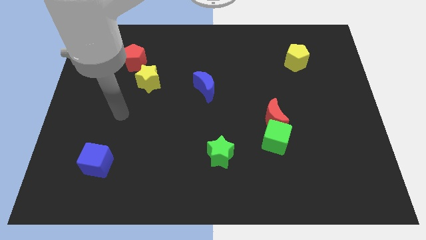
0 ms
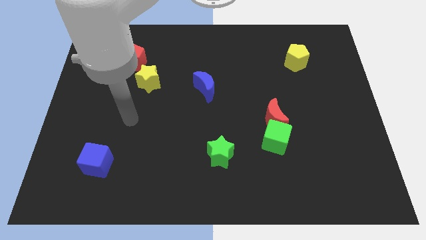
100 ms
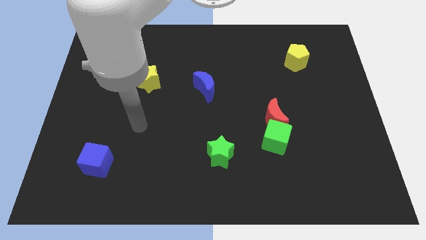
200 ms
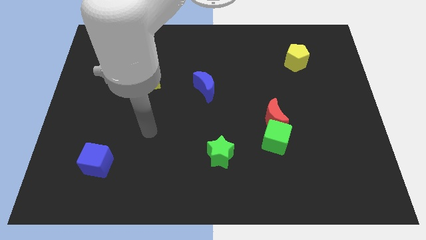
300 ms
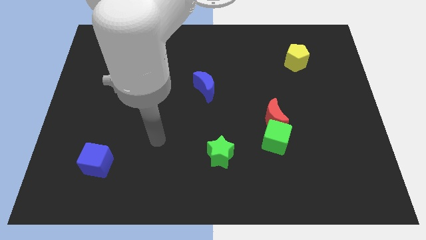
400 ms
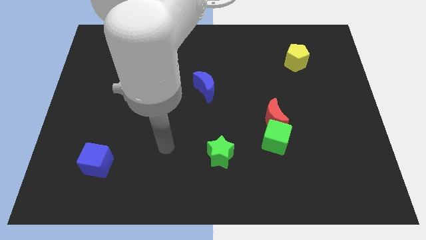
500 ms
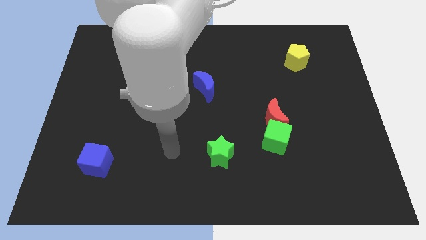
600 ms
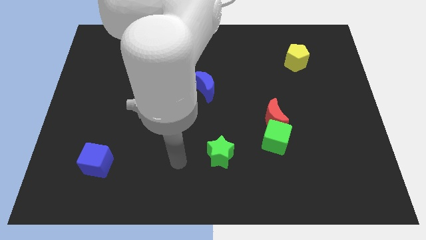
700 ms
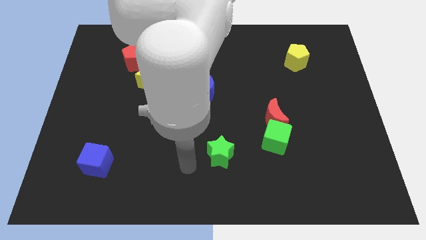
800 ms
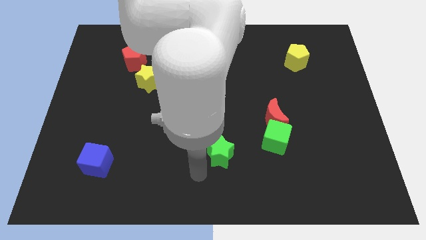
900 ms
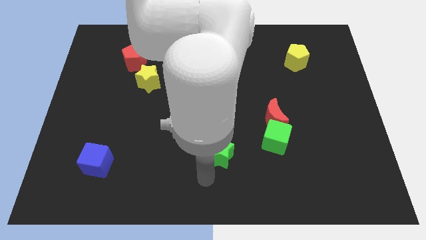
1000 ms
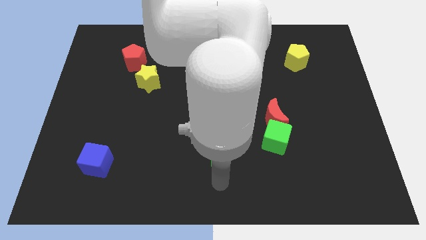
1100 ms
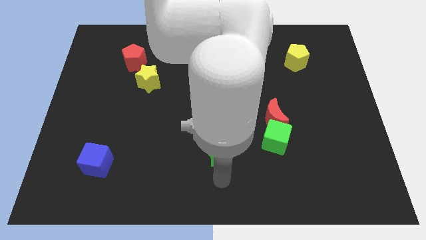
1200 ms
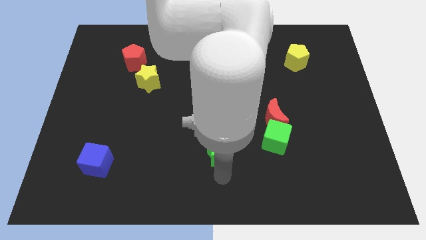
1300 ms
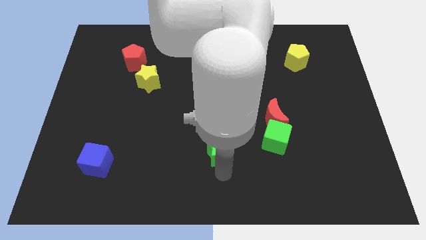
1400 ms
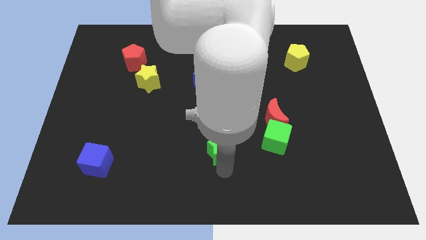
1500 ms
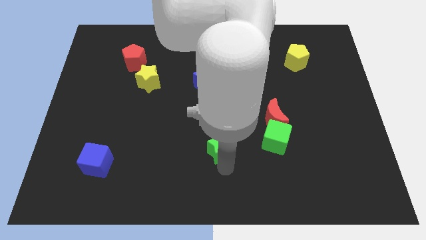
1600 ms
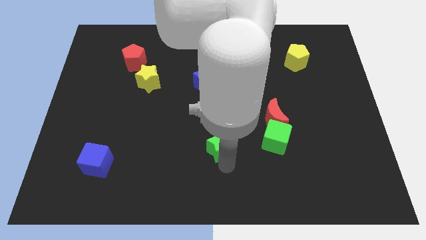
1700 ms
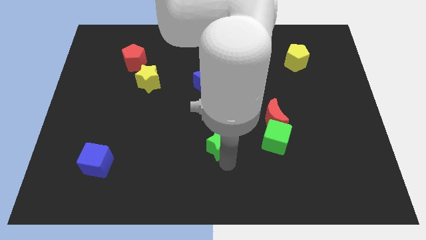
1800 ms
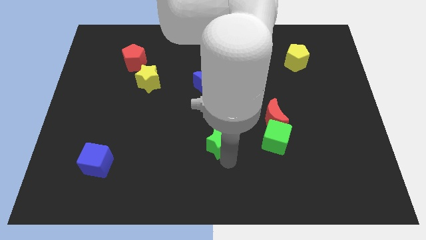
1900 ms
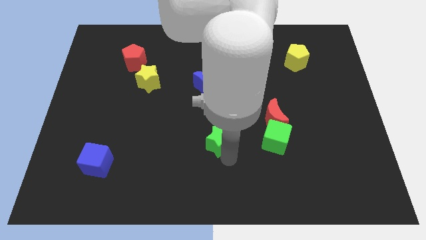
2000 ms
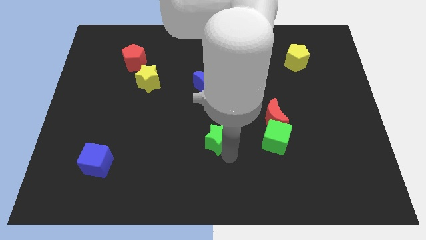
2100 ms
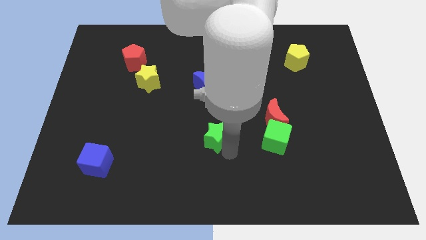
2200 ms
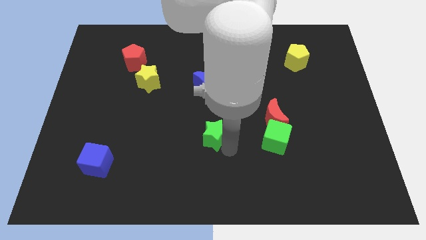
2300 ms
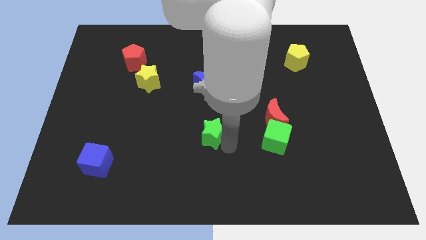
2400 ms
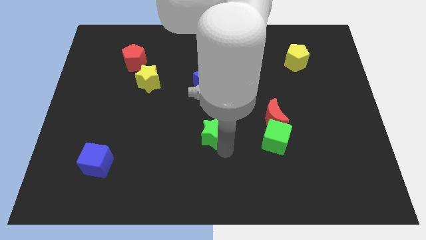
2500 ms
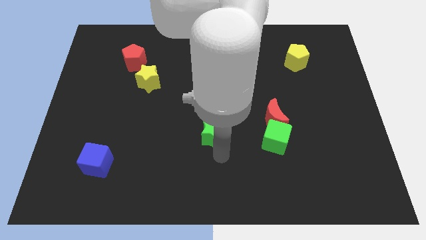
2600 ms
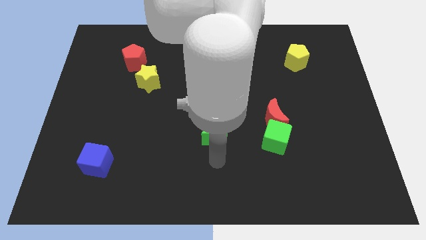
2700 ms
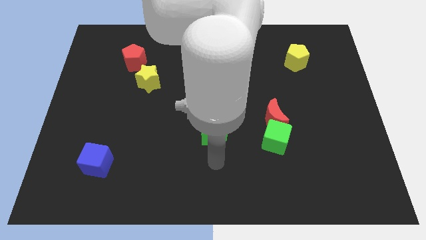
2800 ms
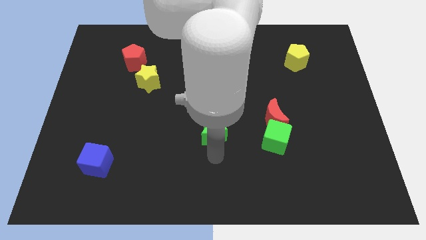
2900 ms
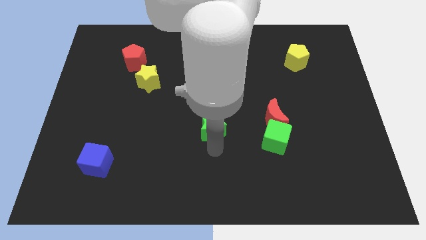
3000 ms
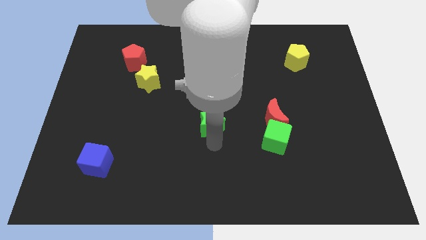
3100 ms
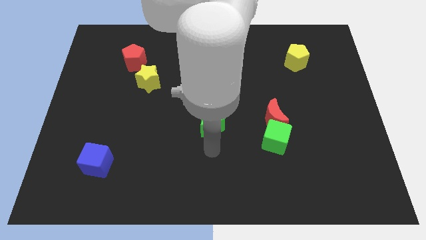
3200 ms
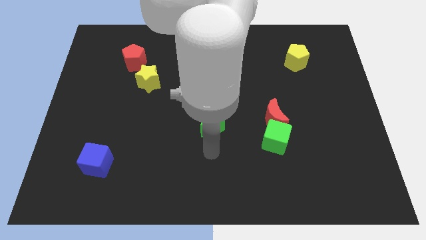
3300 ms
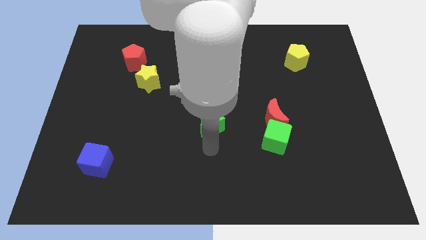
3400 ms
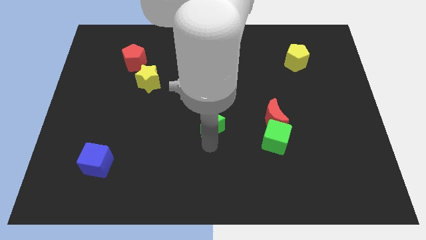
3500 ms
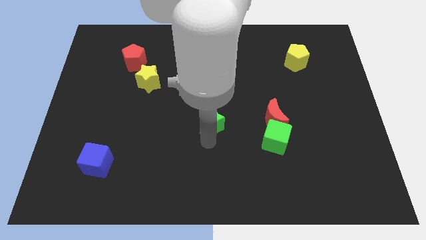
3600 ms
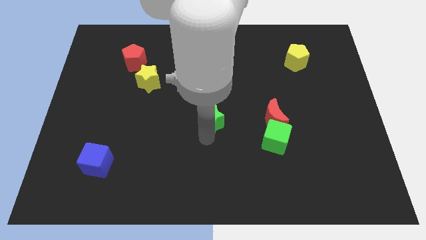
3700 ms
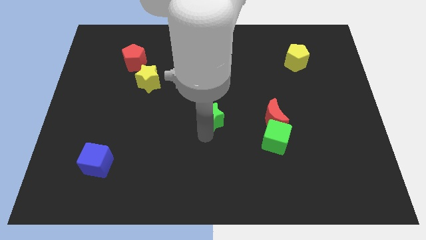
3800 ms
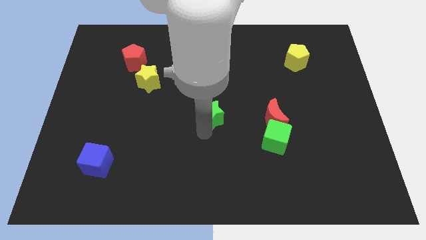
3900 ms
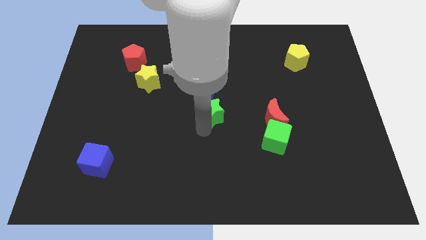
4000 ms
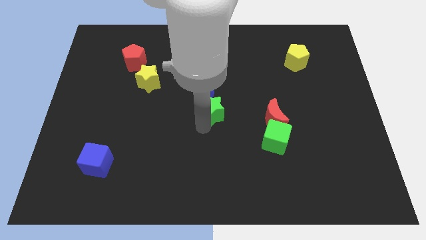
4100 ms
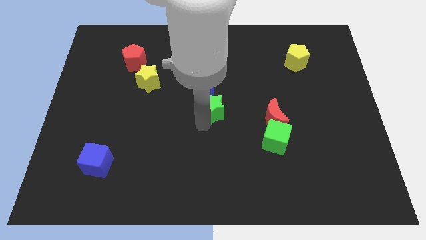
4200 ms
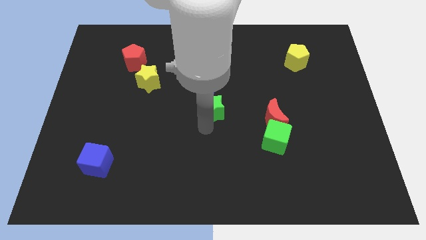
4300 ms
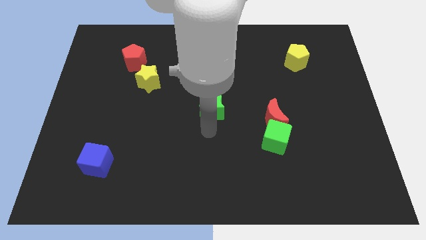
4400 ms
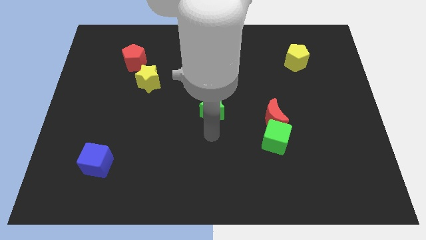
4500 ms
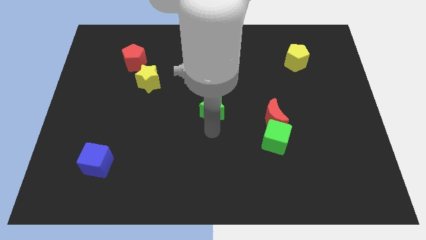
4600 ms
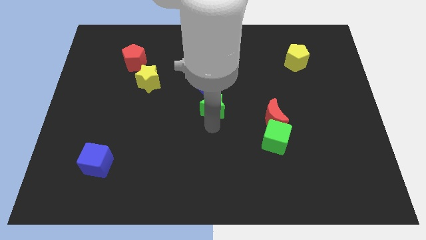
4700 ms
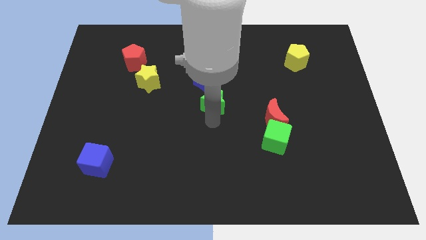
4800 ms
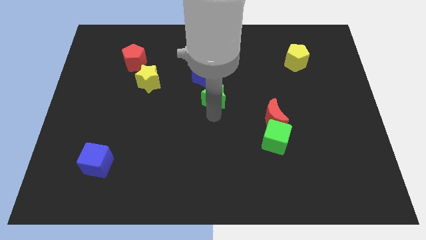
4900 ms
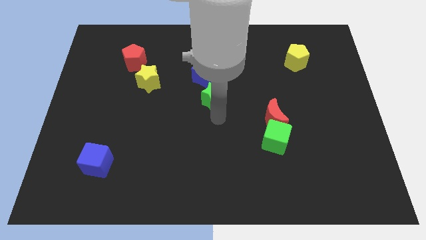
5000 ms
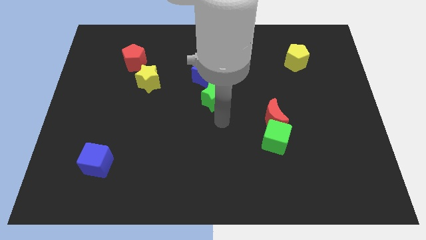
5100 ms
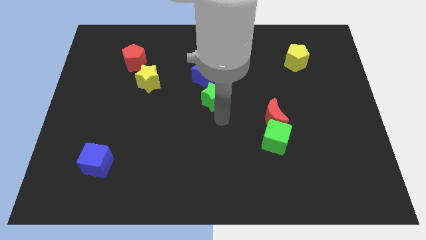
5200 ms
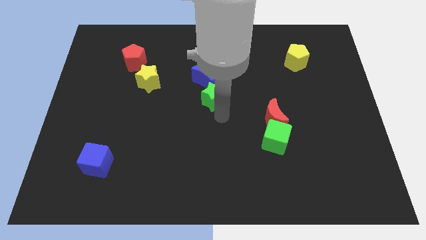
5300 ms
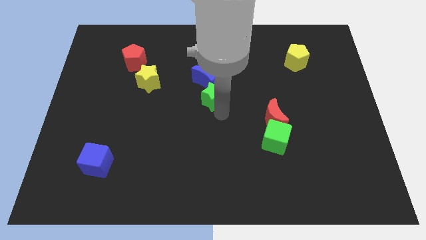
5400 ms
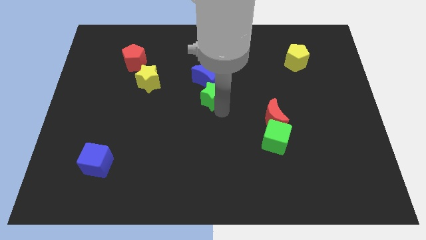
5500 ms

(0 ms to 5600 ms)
slide the green star to the blue moon

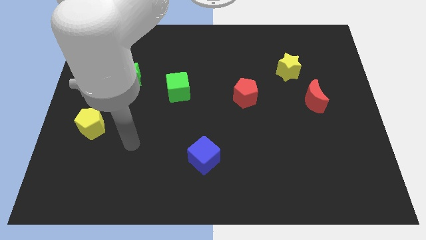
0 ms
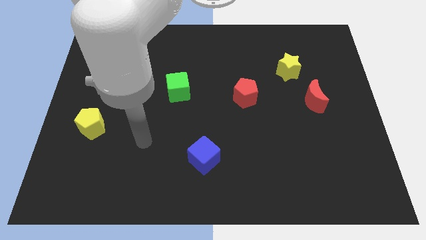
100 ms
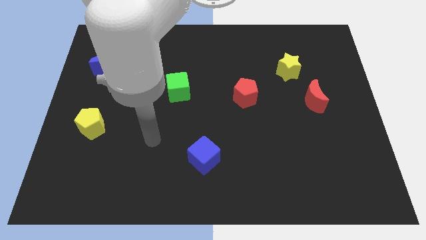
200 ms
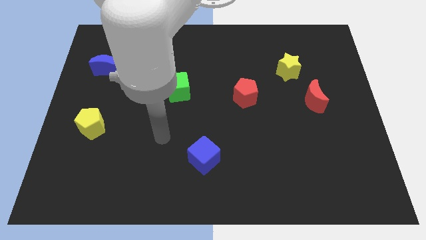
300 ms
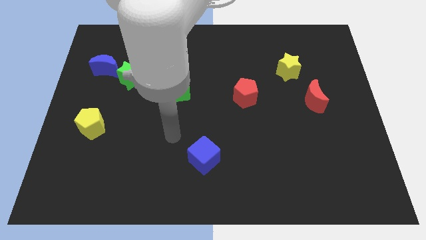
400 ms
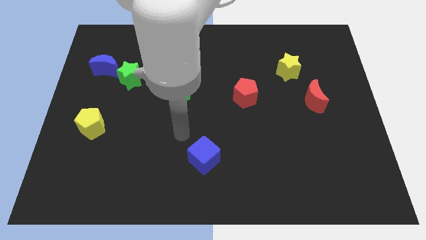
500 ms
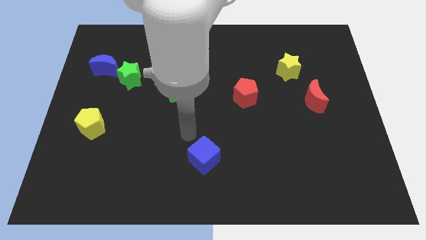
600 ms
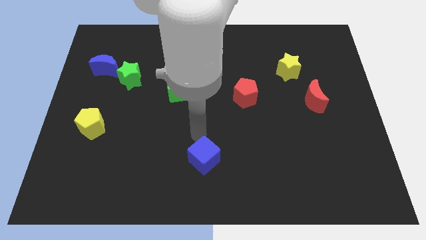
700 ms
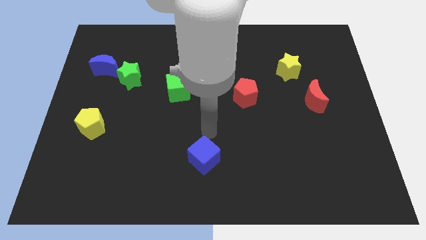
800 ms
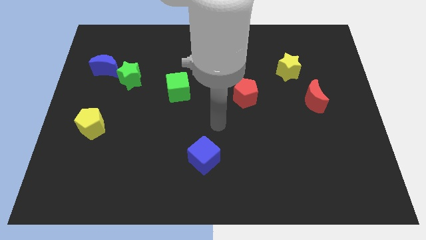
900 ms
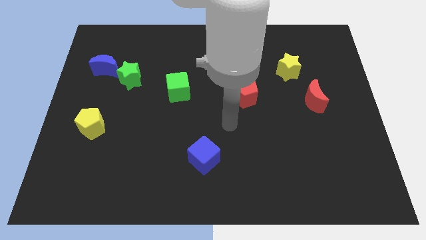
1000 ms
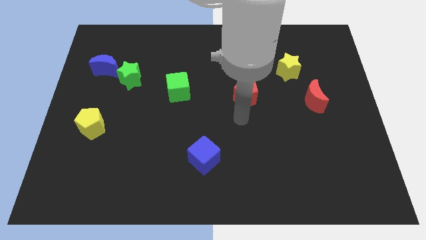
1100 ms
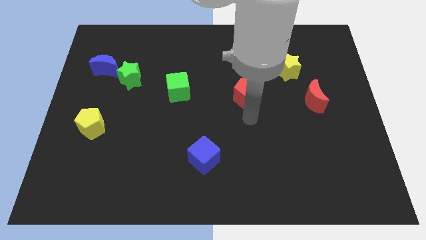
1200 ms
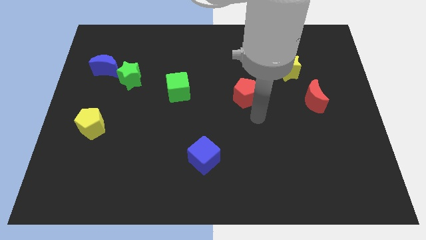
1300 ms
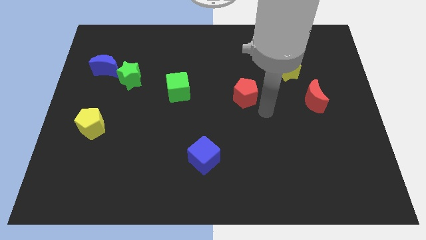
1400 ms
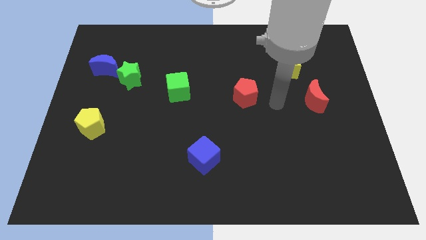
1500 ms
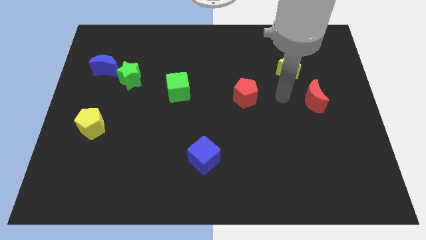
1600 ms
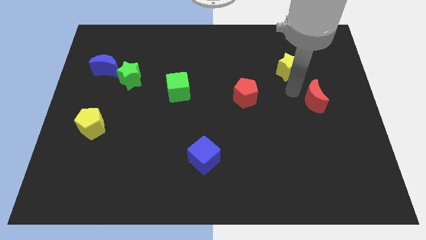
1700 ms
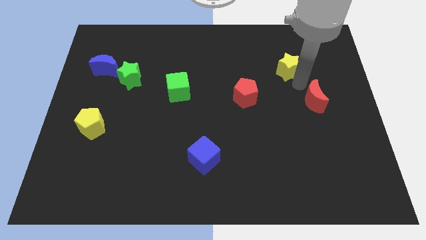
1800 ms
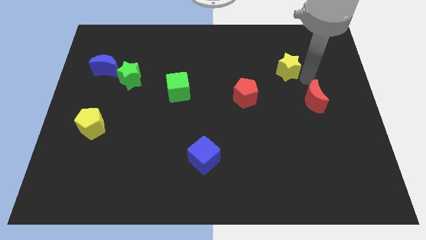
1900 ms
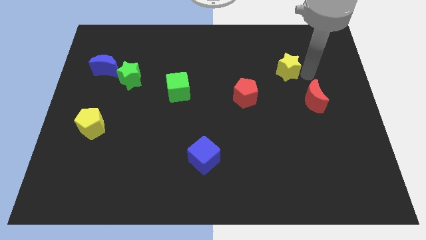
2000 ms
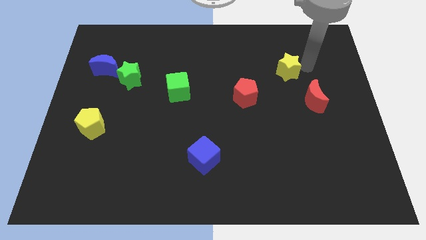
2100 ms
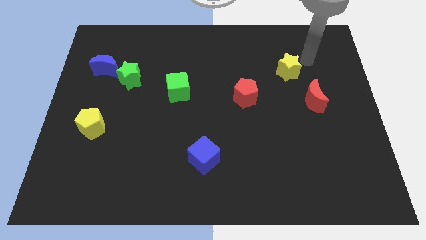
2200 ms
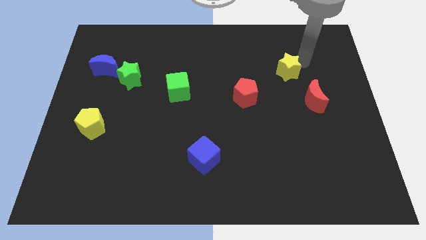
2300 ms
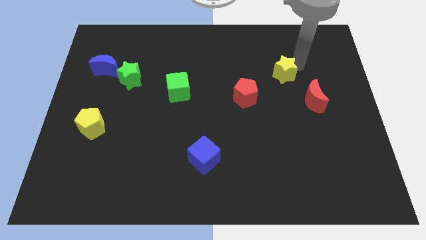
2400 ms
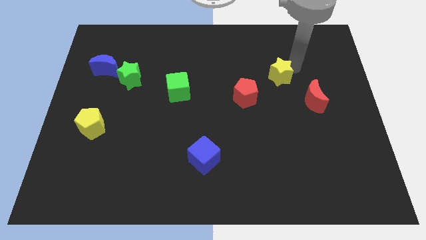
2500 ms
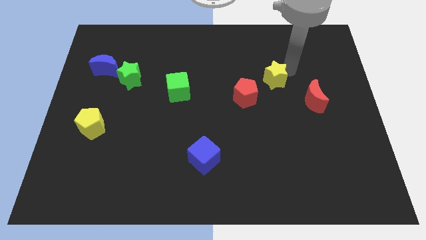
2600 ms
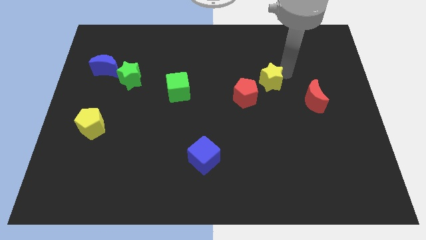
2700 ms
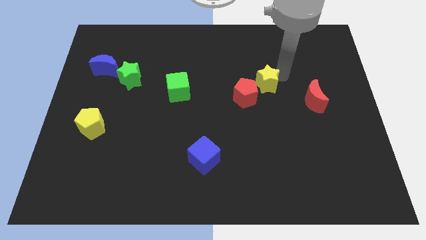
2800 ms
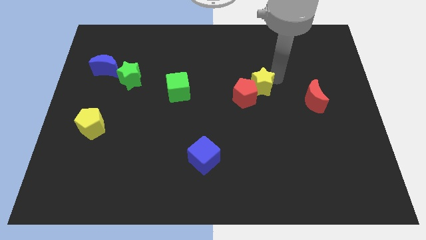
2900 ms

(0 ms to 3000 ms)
slide the yellow star close to the red pentagon
